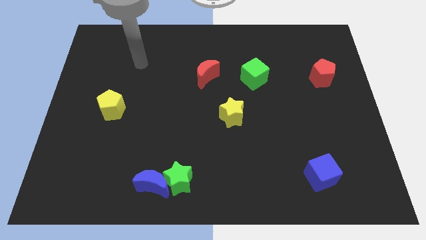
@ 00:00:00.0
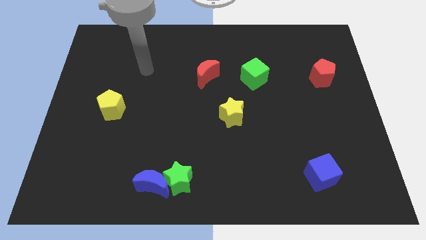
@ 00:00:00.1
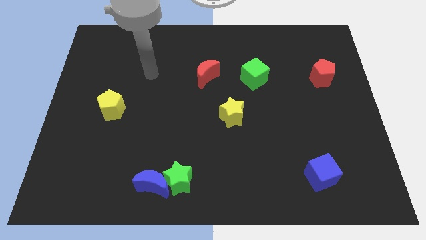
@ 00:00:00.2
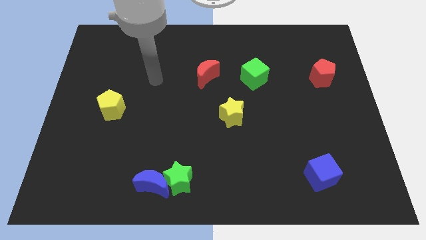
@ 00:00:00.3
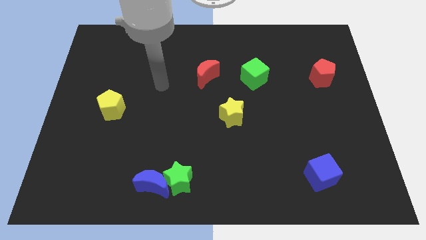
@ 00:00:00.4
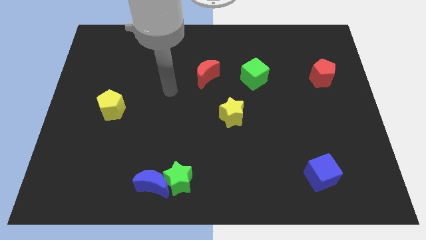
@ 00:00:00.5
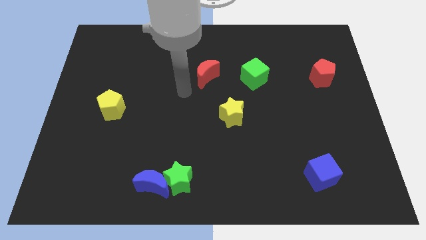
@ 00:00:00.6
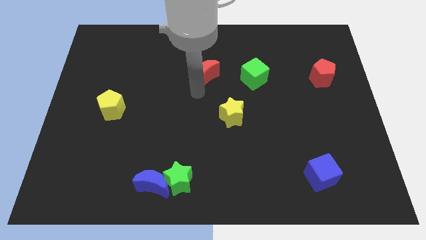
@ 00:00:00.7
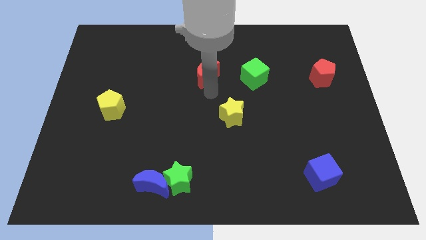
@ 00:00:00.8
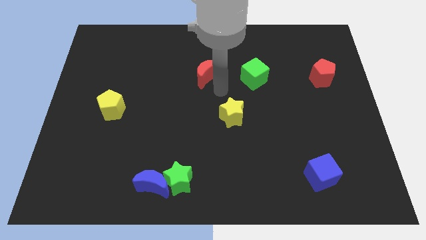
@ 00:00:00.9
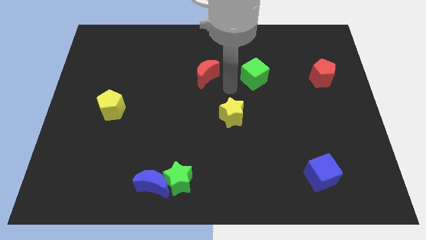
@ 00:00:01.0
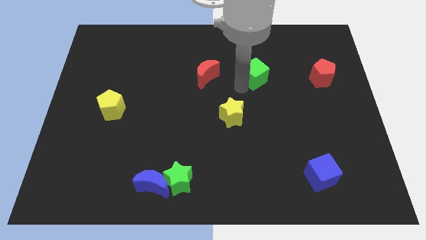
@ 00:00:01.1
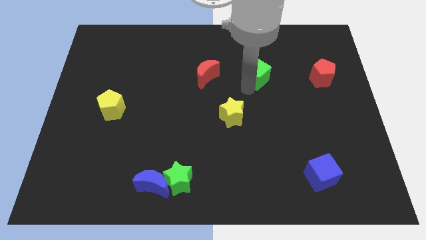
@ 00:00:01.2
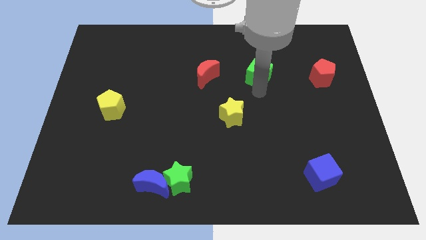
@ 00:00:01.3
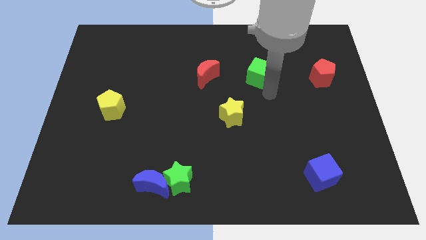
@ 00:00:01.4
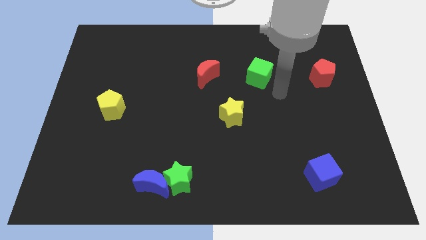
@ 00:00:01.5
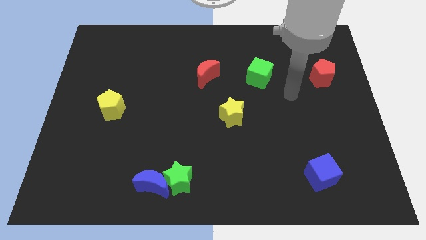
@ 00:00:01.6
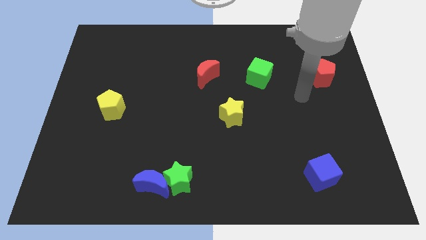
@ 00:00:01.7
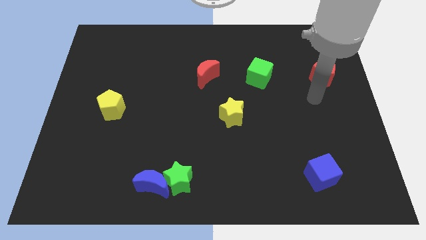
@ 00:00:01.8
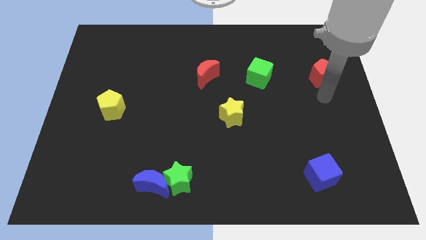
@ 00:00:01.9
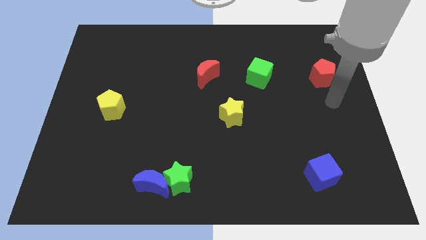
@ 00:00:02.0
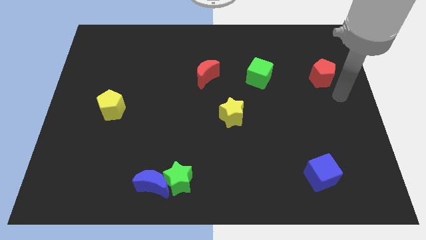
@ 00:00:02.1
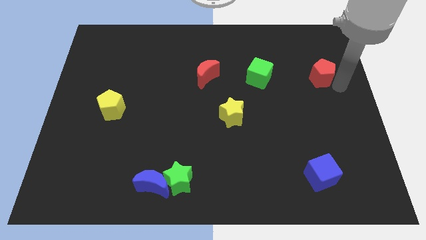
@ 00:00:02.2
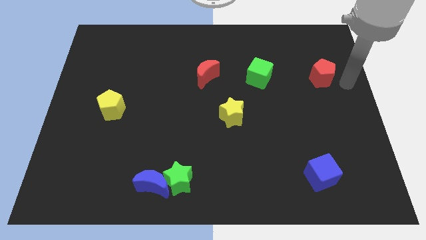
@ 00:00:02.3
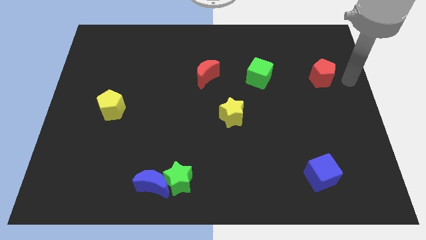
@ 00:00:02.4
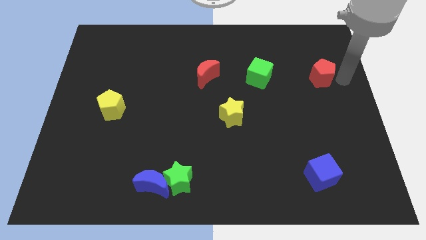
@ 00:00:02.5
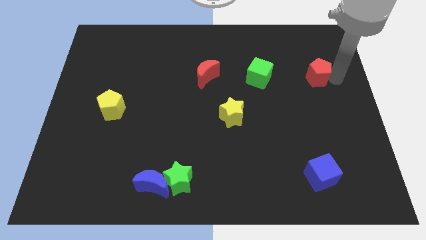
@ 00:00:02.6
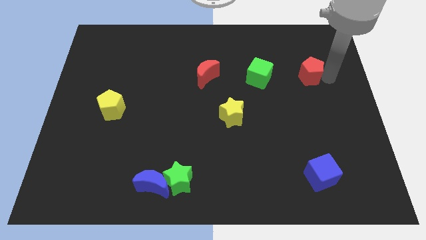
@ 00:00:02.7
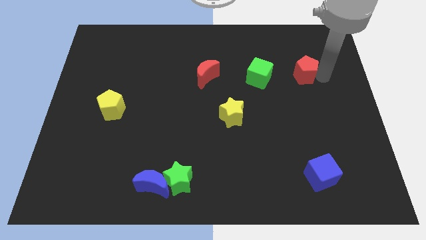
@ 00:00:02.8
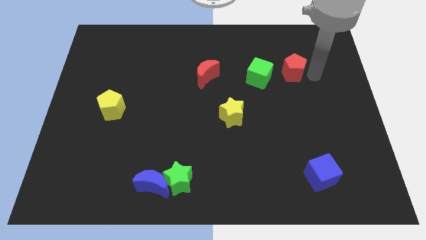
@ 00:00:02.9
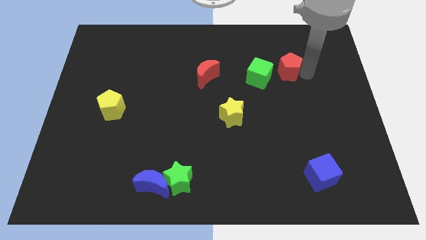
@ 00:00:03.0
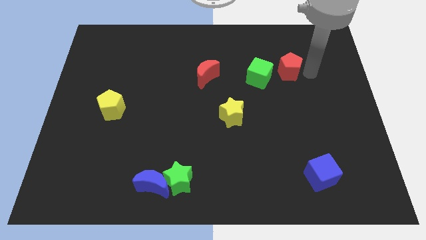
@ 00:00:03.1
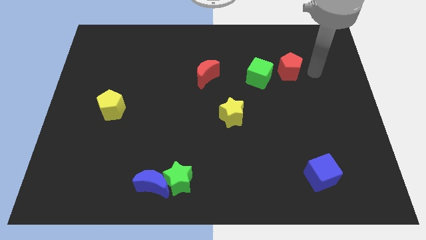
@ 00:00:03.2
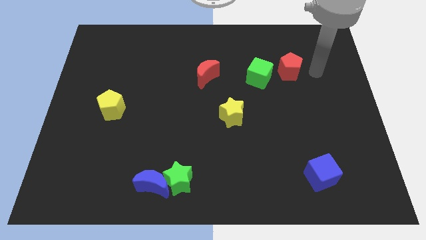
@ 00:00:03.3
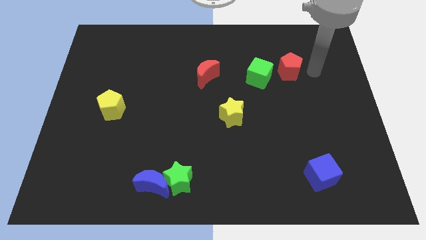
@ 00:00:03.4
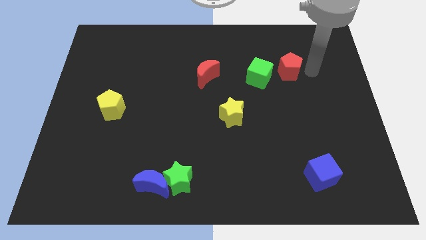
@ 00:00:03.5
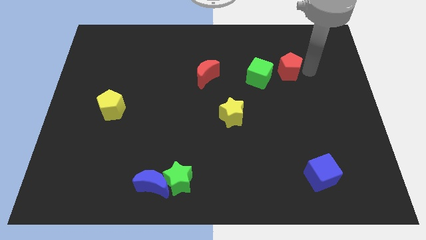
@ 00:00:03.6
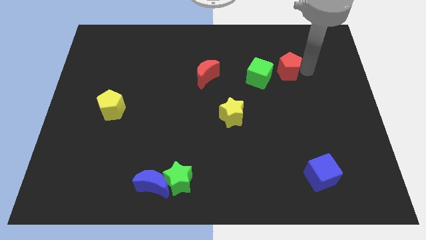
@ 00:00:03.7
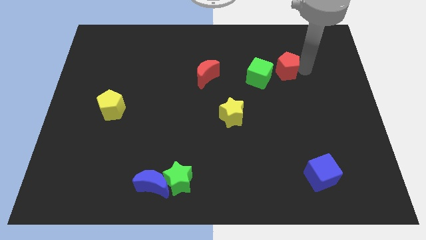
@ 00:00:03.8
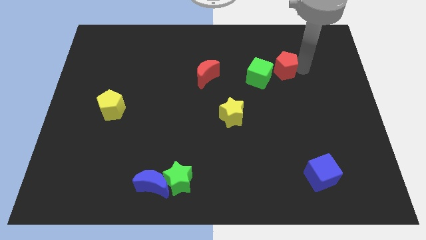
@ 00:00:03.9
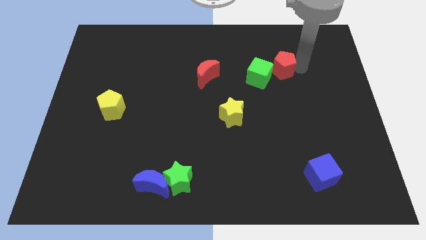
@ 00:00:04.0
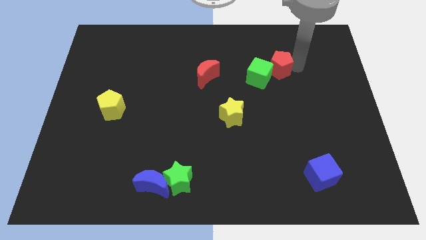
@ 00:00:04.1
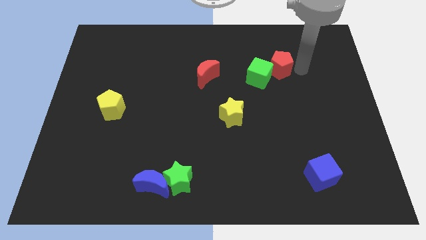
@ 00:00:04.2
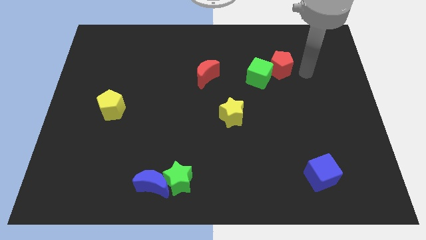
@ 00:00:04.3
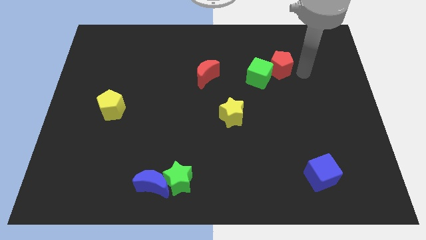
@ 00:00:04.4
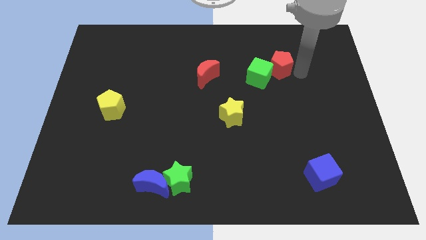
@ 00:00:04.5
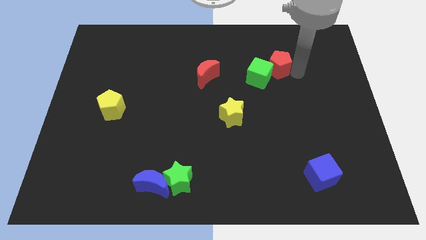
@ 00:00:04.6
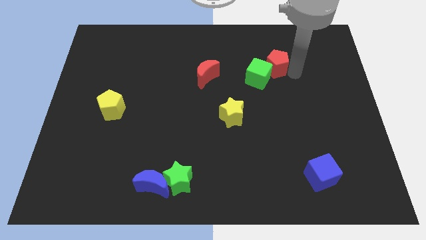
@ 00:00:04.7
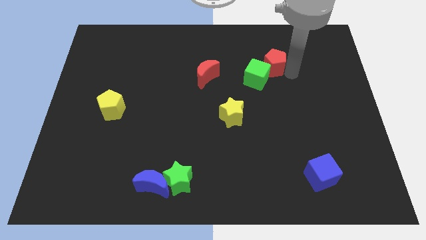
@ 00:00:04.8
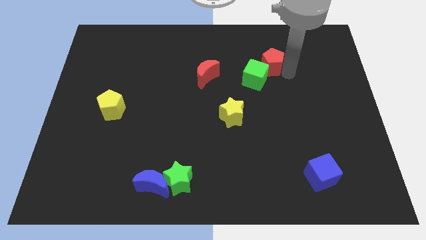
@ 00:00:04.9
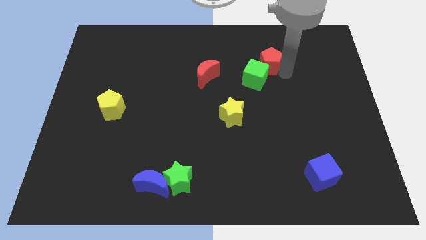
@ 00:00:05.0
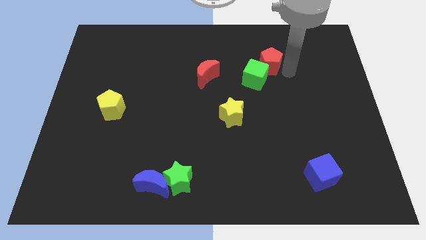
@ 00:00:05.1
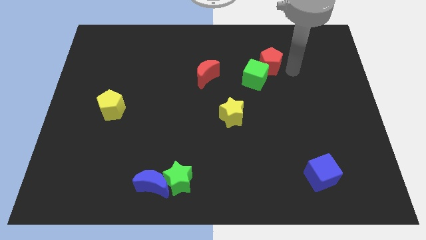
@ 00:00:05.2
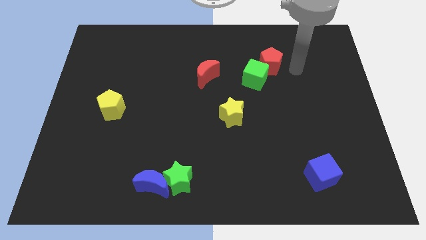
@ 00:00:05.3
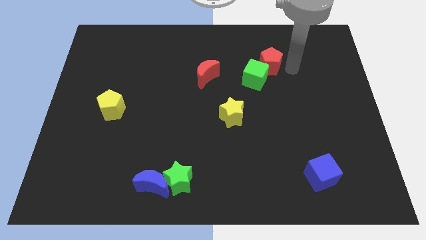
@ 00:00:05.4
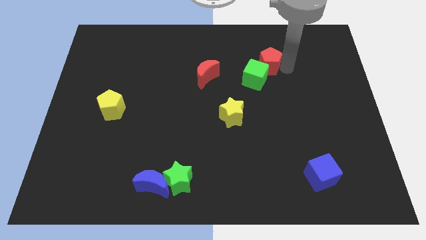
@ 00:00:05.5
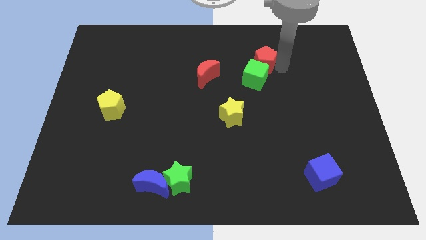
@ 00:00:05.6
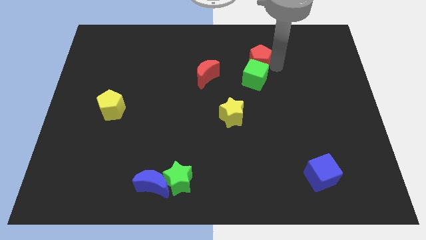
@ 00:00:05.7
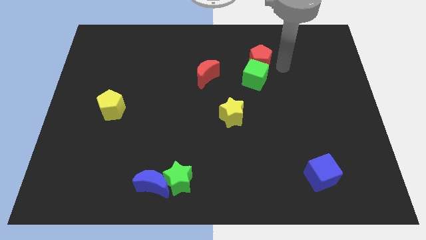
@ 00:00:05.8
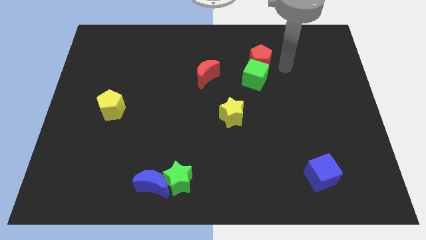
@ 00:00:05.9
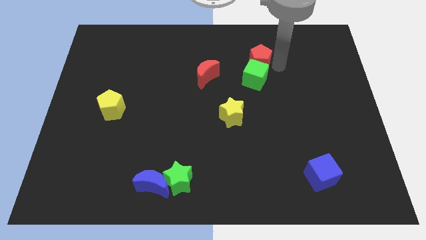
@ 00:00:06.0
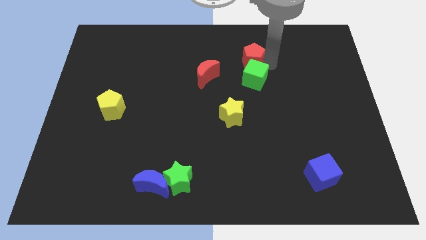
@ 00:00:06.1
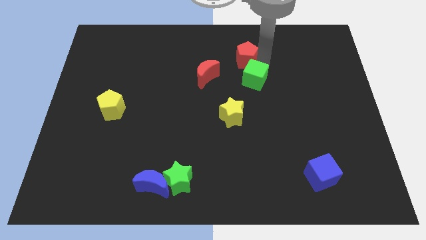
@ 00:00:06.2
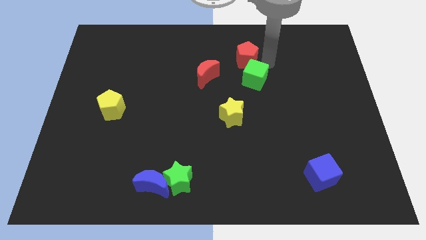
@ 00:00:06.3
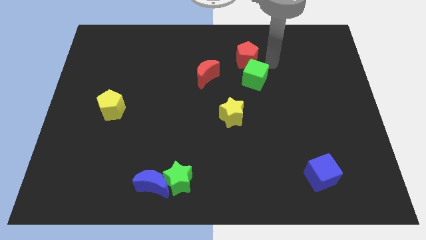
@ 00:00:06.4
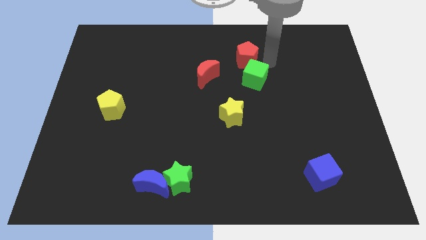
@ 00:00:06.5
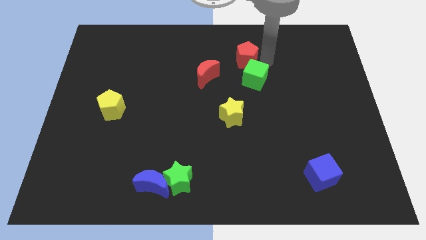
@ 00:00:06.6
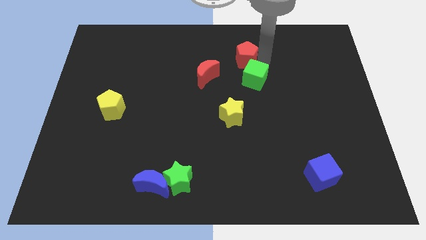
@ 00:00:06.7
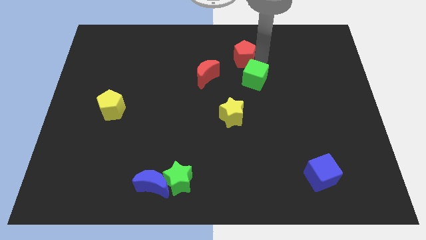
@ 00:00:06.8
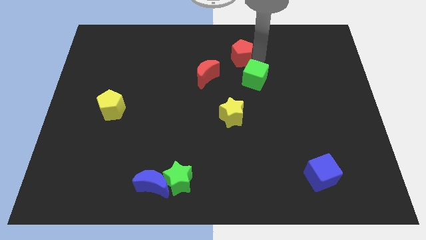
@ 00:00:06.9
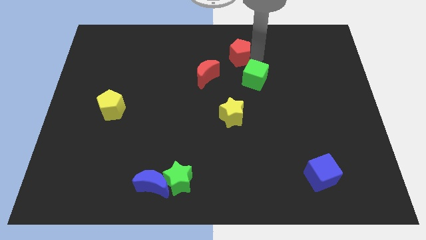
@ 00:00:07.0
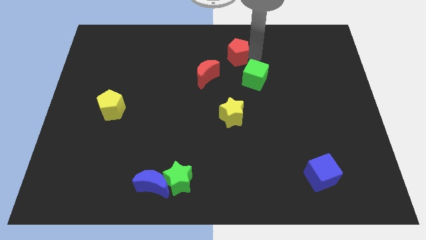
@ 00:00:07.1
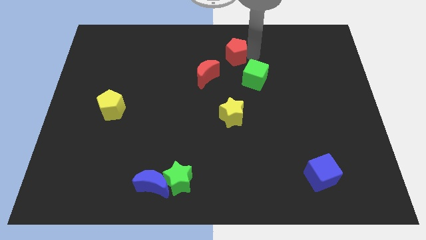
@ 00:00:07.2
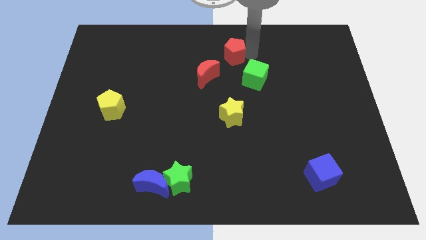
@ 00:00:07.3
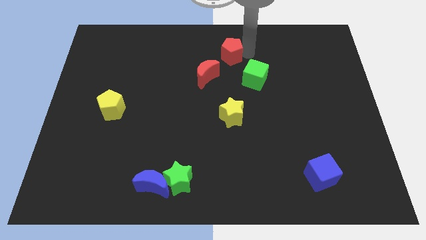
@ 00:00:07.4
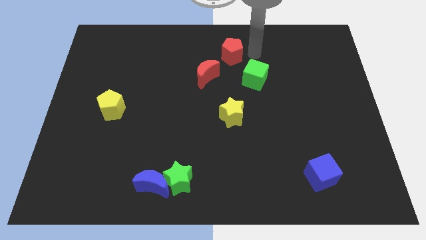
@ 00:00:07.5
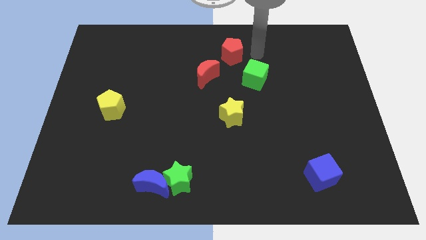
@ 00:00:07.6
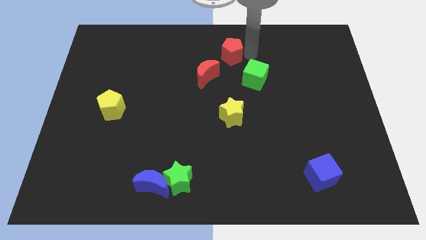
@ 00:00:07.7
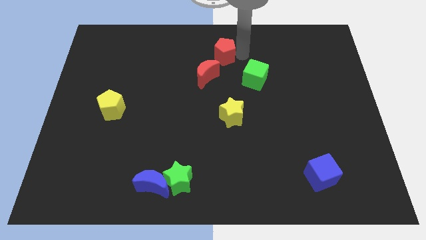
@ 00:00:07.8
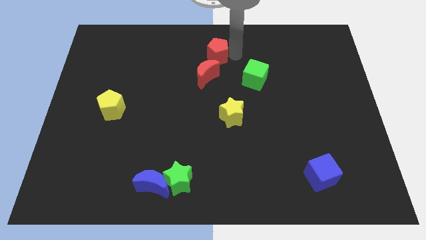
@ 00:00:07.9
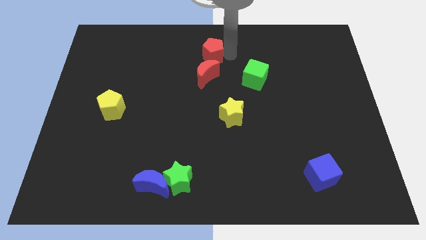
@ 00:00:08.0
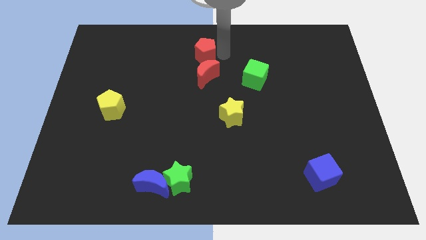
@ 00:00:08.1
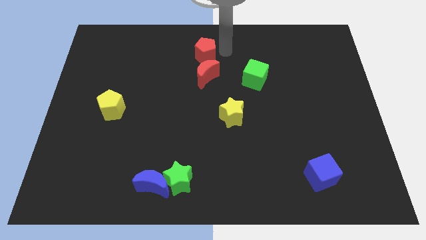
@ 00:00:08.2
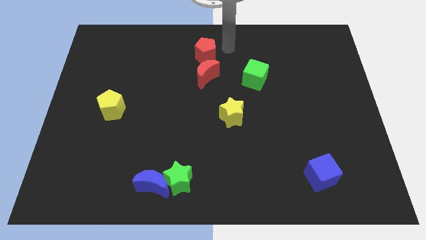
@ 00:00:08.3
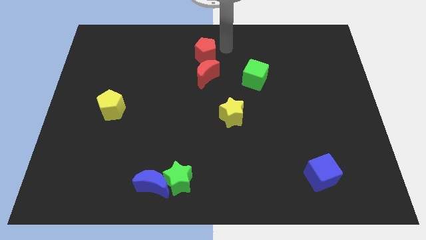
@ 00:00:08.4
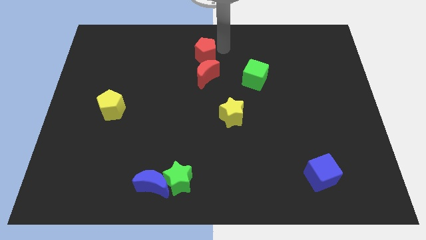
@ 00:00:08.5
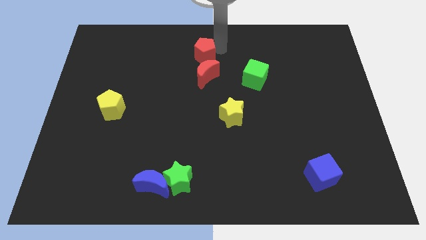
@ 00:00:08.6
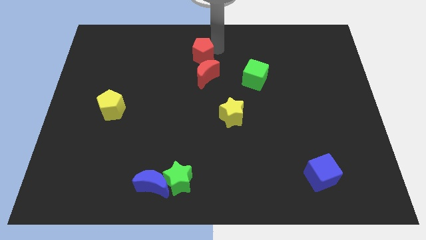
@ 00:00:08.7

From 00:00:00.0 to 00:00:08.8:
slide the red pentagon diagonally up and to the left of the red moon
